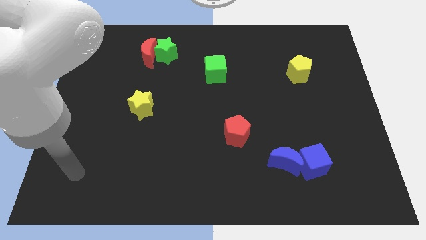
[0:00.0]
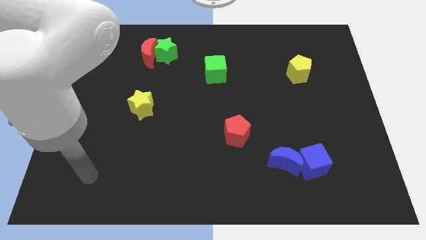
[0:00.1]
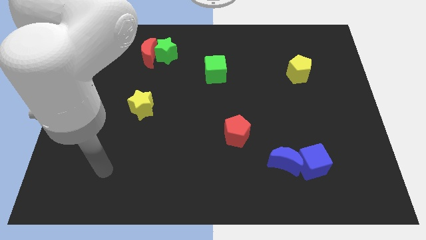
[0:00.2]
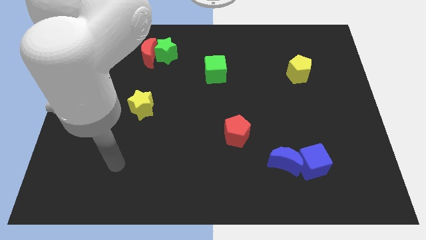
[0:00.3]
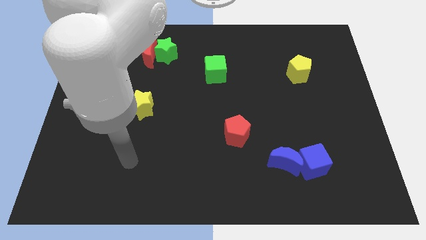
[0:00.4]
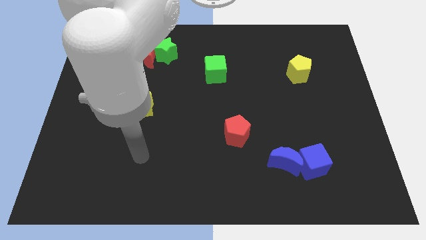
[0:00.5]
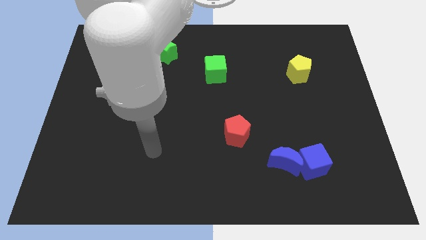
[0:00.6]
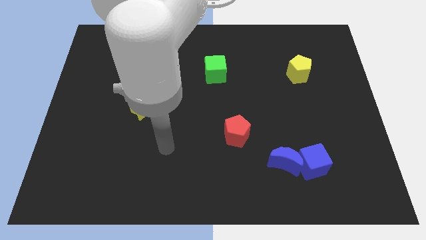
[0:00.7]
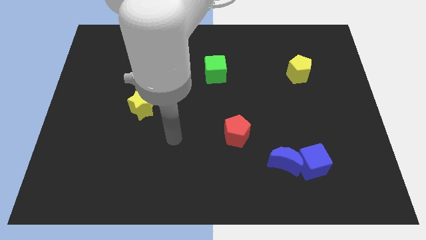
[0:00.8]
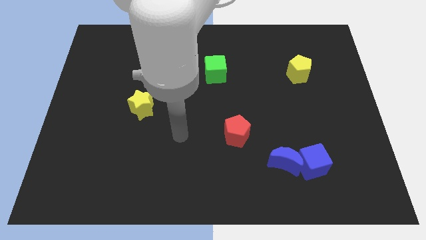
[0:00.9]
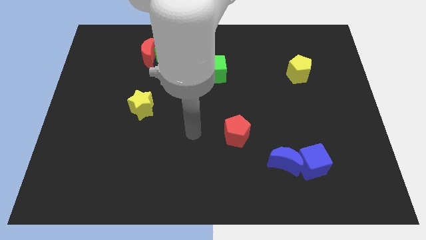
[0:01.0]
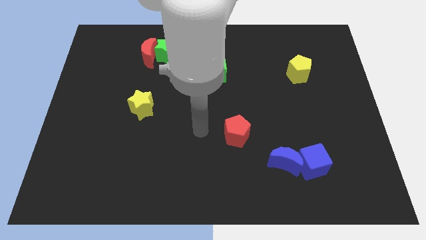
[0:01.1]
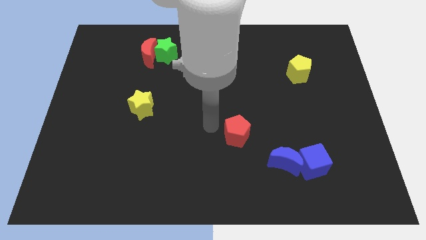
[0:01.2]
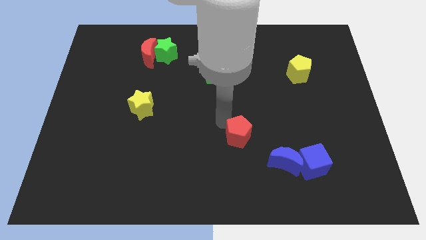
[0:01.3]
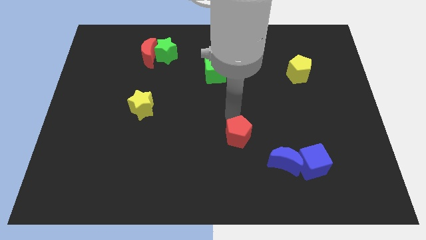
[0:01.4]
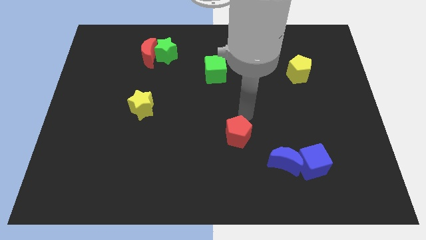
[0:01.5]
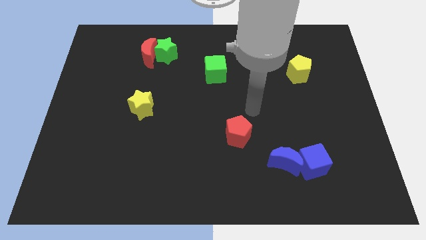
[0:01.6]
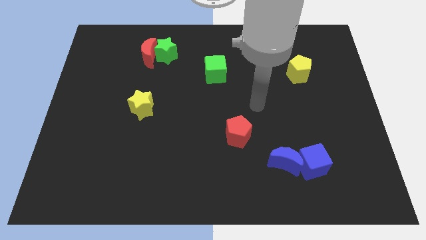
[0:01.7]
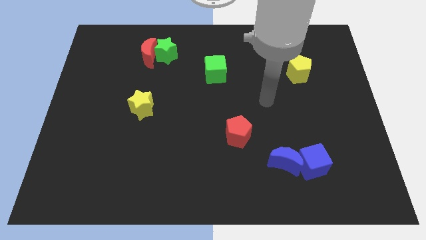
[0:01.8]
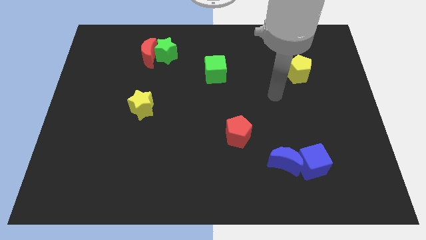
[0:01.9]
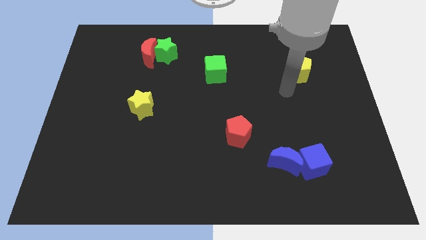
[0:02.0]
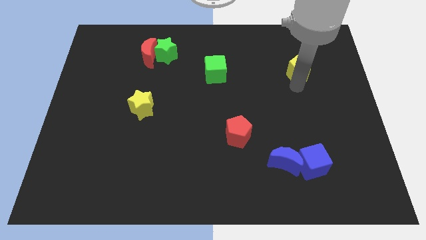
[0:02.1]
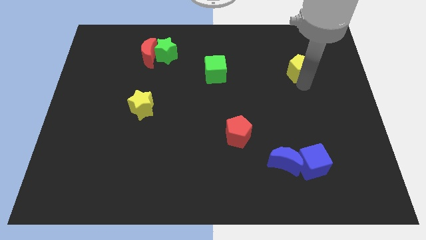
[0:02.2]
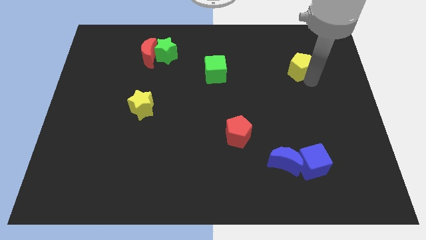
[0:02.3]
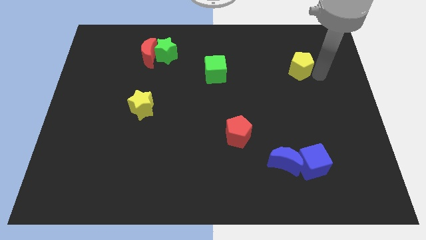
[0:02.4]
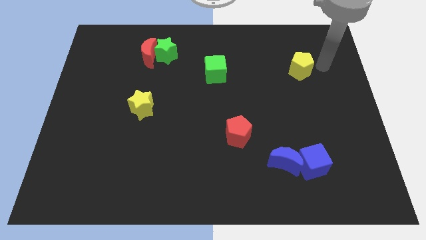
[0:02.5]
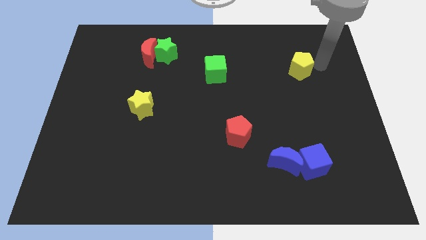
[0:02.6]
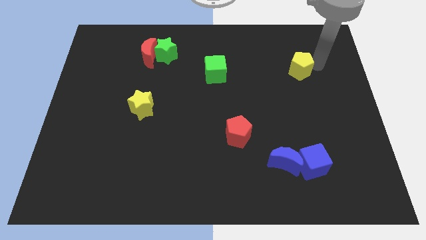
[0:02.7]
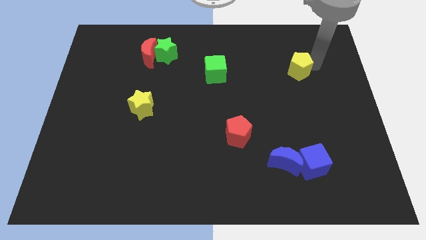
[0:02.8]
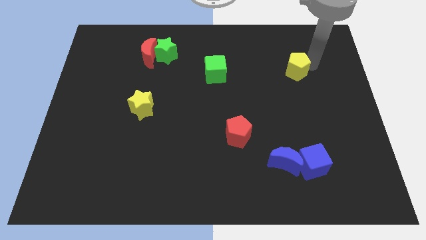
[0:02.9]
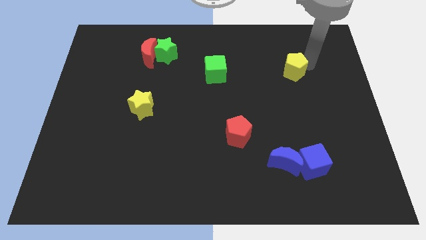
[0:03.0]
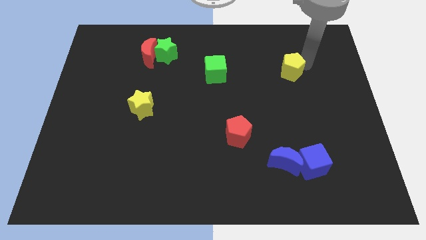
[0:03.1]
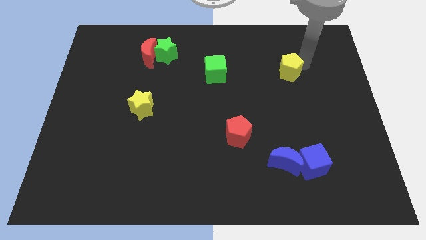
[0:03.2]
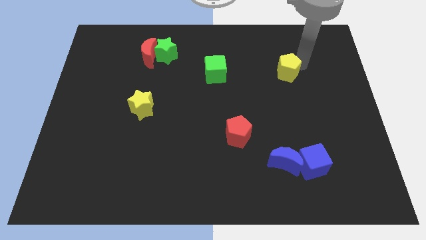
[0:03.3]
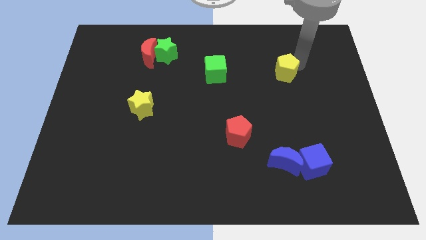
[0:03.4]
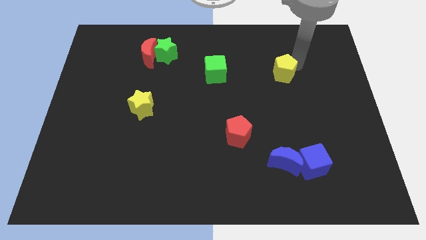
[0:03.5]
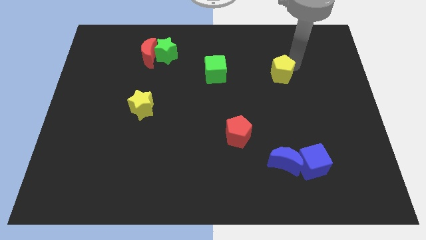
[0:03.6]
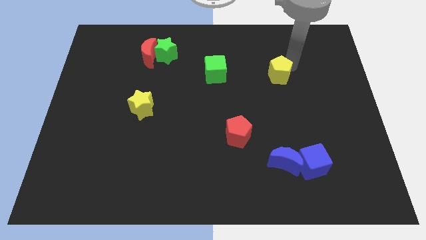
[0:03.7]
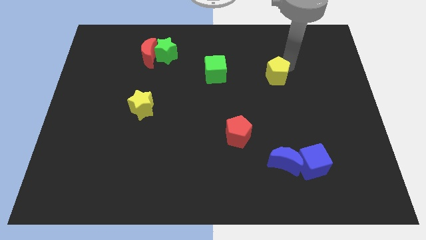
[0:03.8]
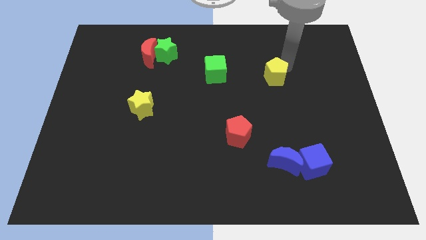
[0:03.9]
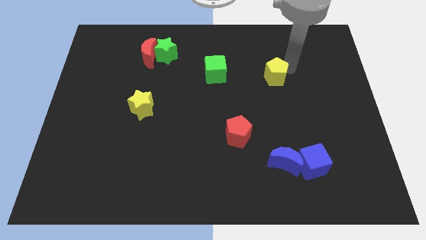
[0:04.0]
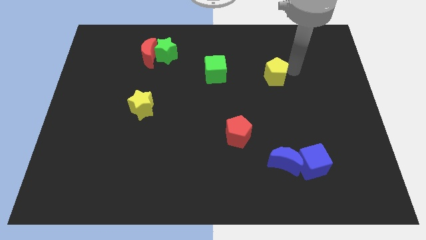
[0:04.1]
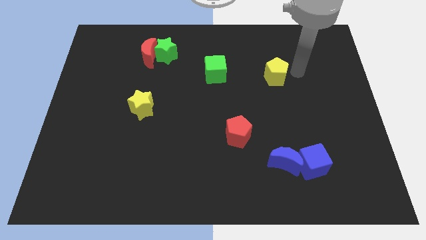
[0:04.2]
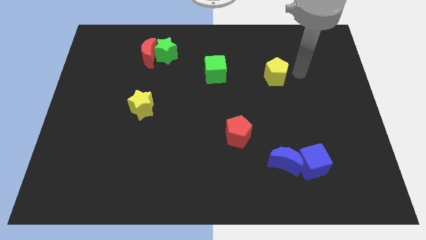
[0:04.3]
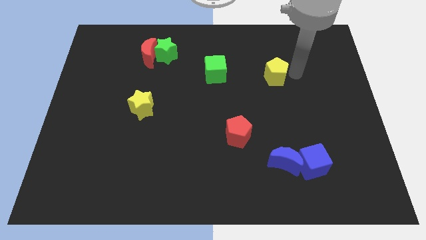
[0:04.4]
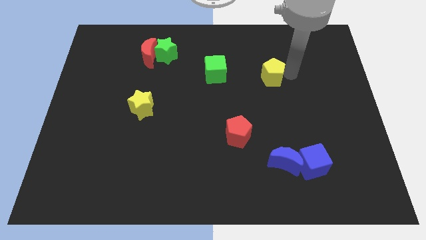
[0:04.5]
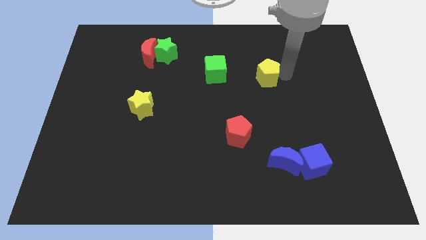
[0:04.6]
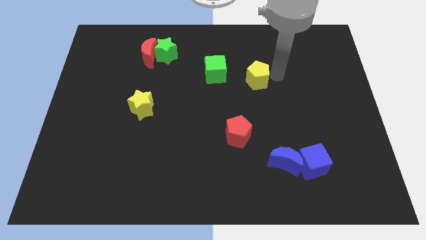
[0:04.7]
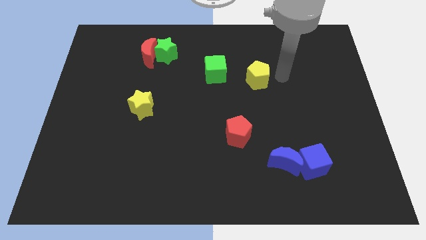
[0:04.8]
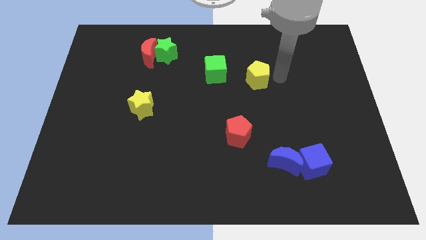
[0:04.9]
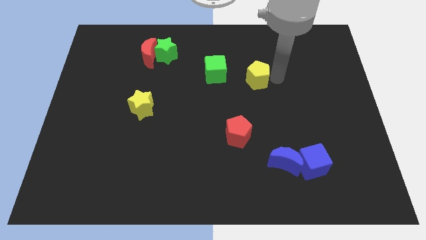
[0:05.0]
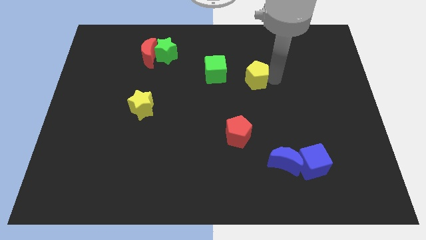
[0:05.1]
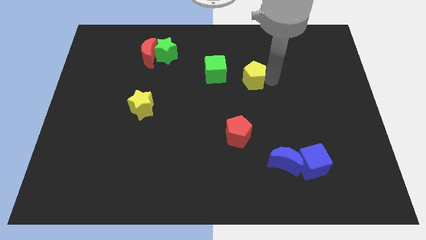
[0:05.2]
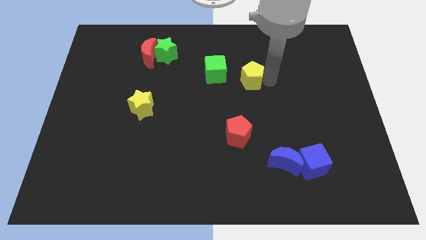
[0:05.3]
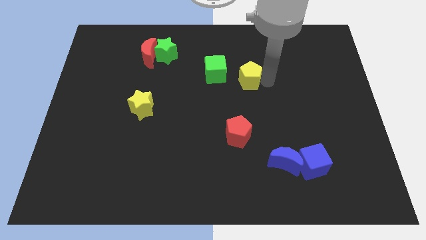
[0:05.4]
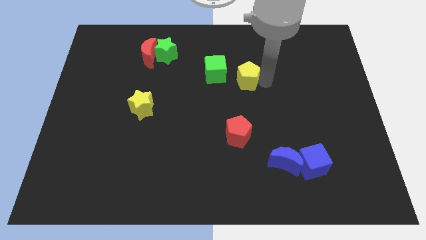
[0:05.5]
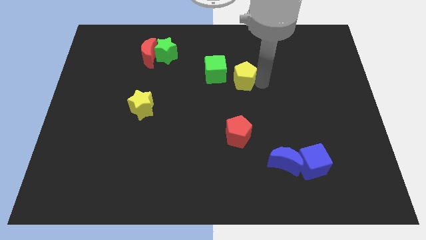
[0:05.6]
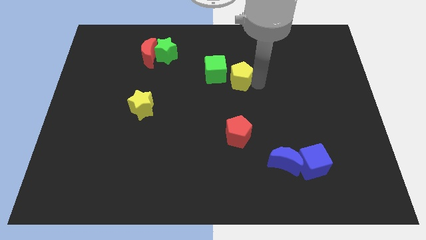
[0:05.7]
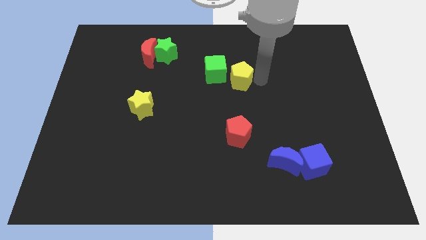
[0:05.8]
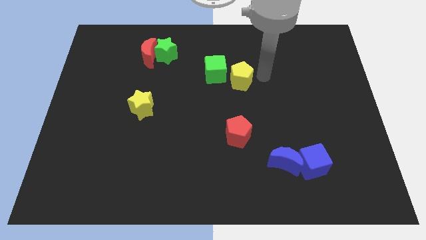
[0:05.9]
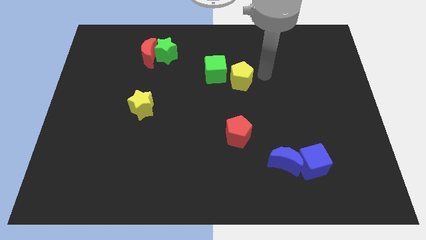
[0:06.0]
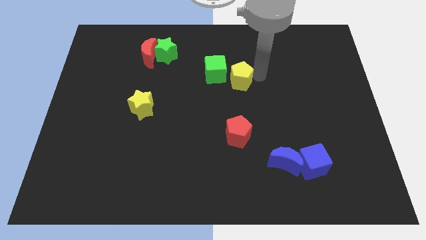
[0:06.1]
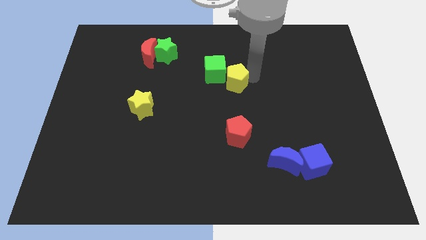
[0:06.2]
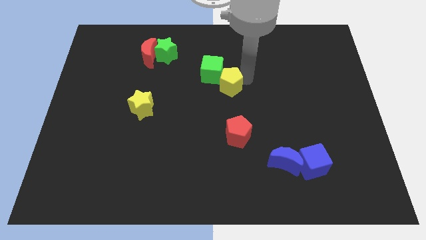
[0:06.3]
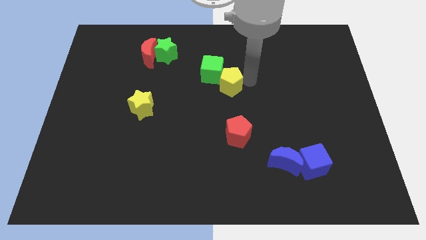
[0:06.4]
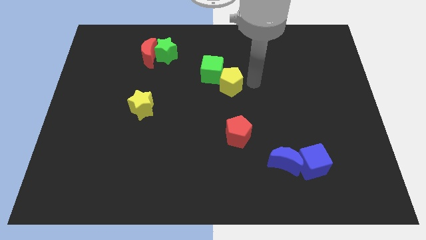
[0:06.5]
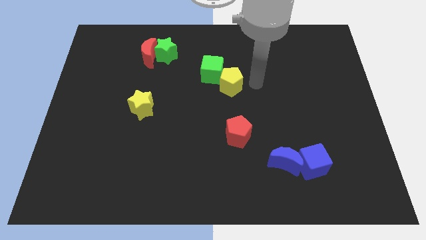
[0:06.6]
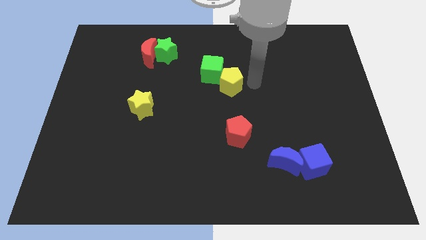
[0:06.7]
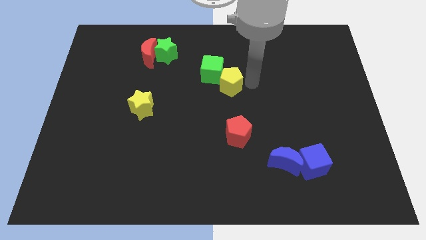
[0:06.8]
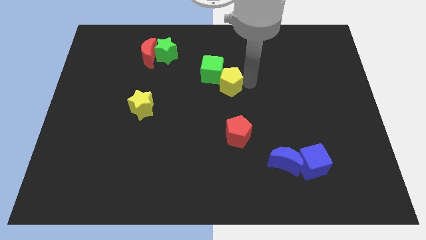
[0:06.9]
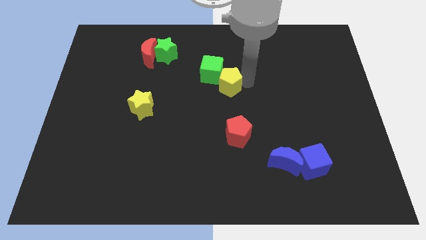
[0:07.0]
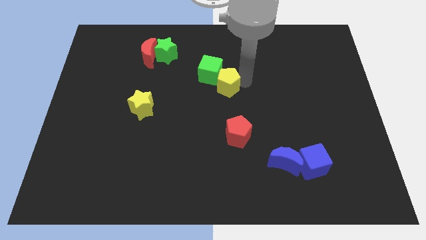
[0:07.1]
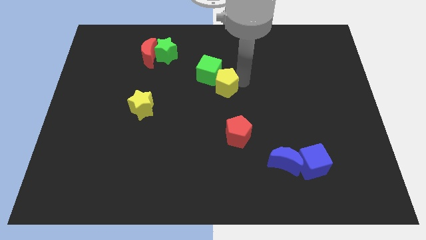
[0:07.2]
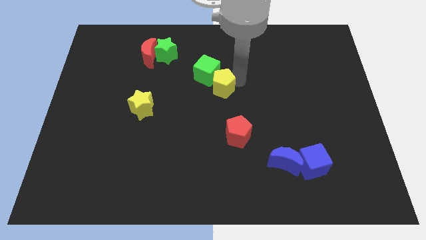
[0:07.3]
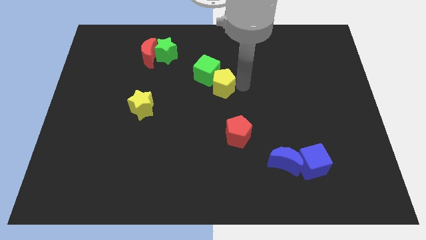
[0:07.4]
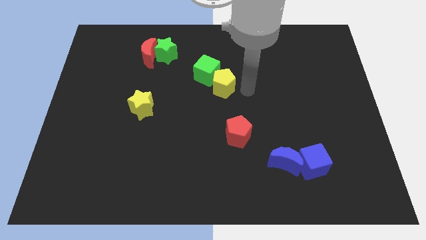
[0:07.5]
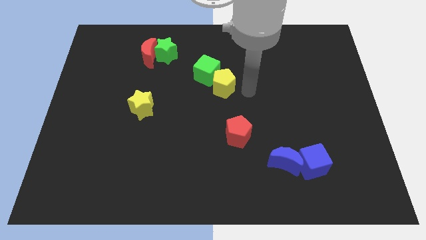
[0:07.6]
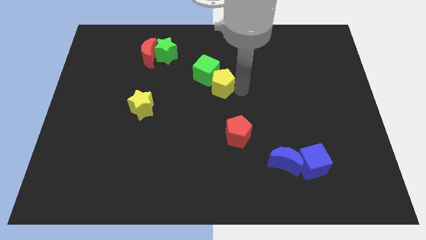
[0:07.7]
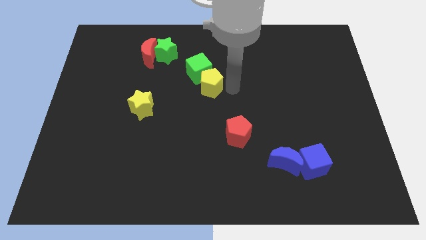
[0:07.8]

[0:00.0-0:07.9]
slide the yellow pentagon left
